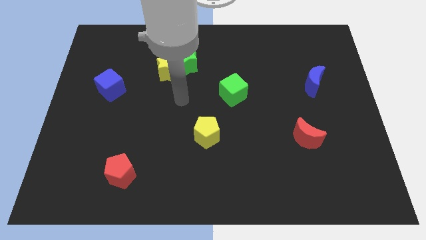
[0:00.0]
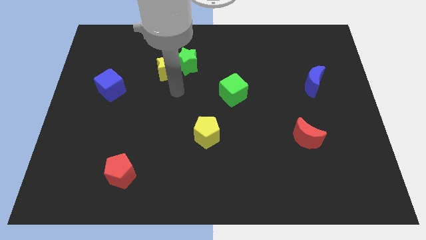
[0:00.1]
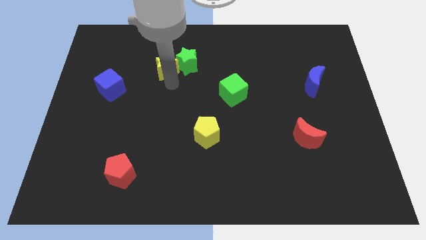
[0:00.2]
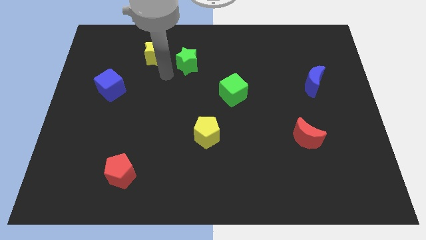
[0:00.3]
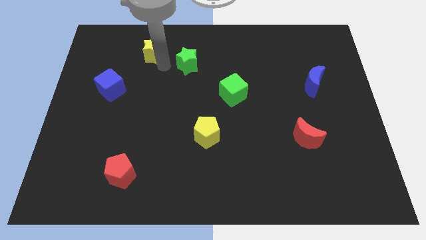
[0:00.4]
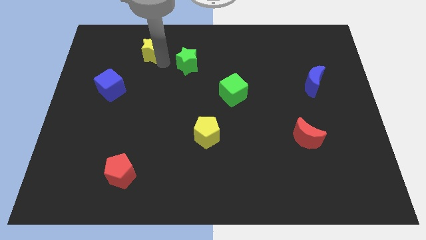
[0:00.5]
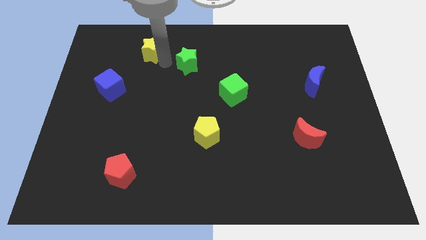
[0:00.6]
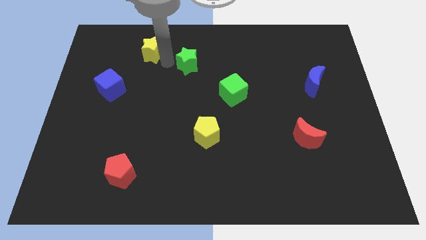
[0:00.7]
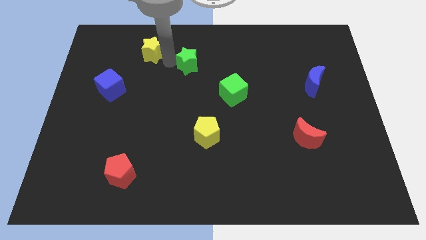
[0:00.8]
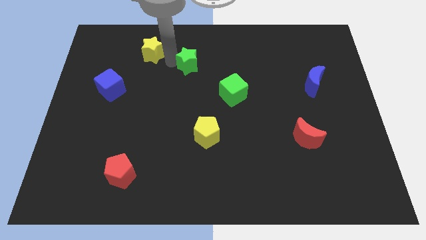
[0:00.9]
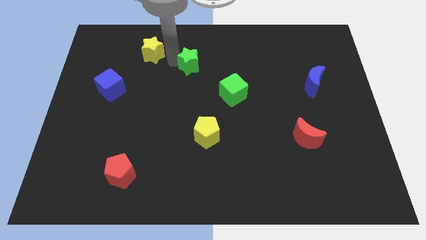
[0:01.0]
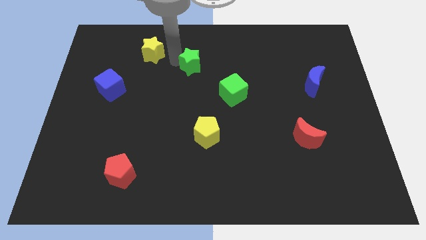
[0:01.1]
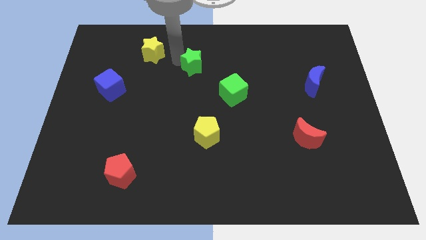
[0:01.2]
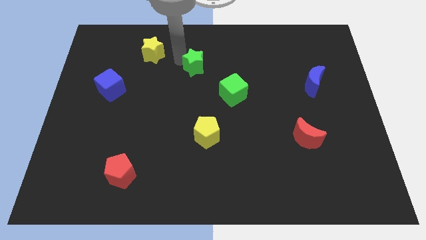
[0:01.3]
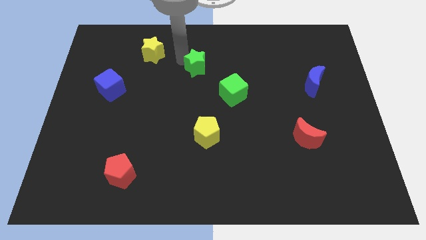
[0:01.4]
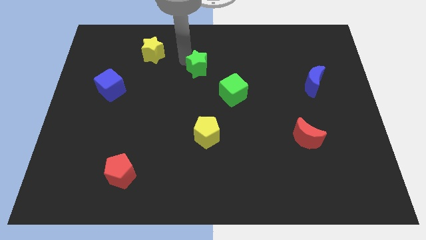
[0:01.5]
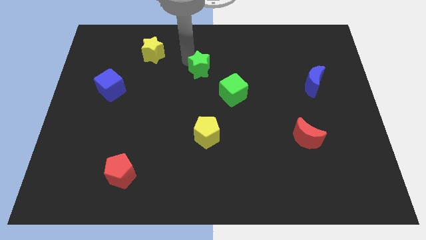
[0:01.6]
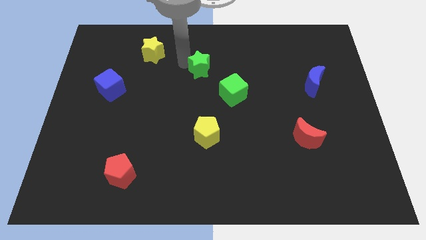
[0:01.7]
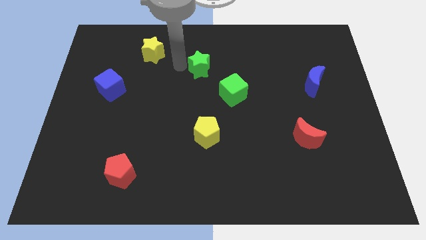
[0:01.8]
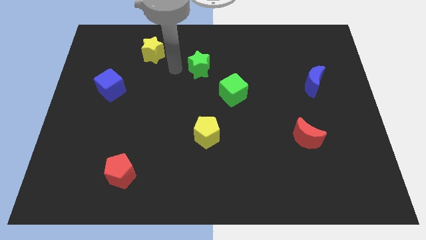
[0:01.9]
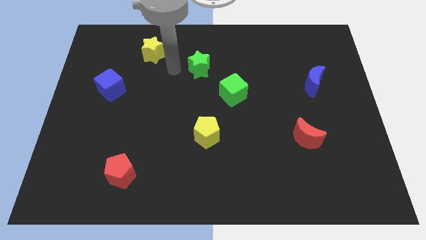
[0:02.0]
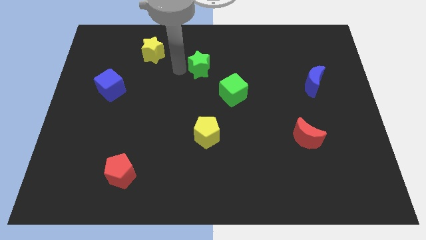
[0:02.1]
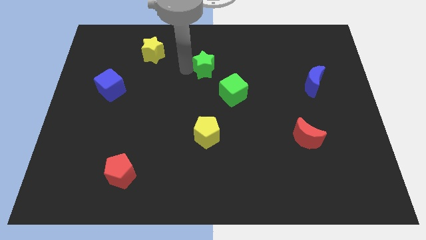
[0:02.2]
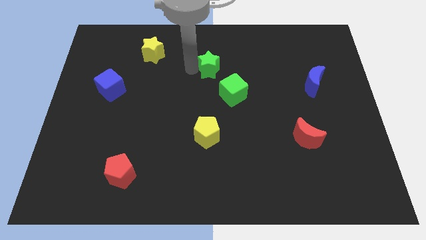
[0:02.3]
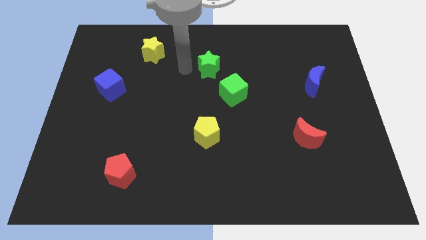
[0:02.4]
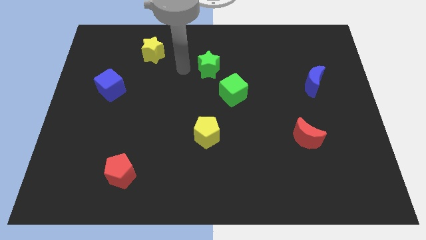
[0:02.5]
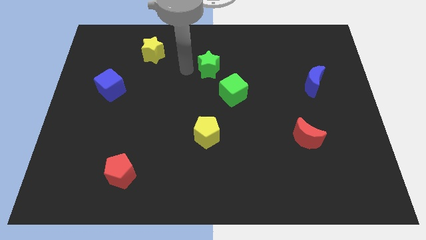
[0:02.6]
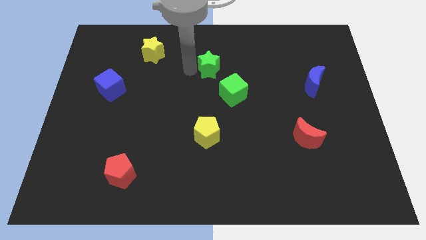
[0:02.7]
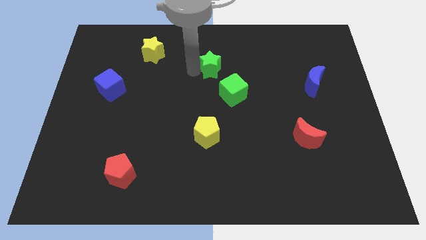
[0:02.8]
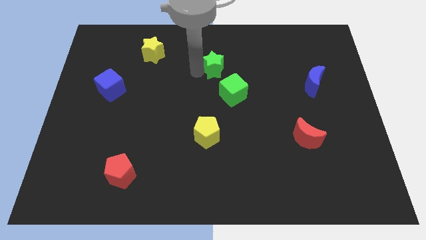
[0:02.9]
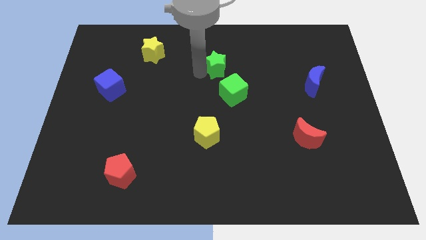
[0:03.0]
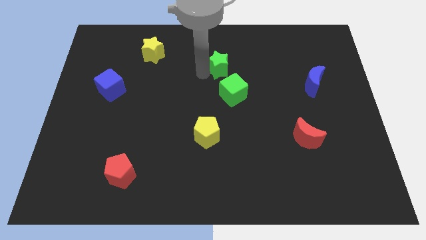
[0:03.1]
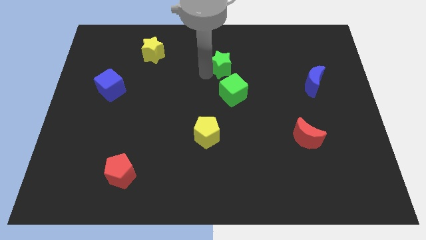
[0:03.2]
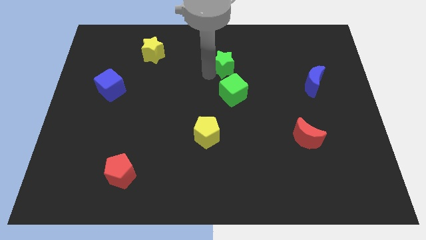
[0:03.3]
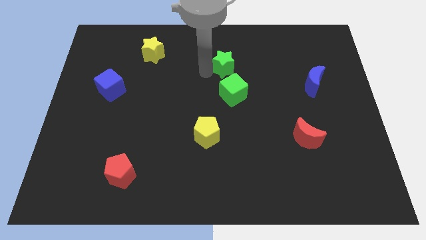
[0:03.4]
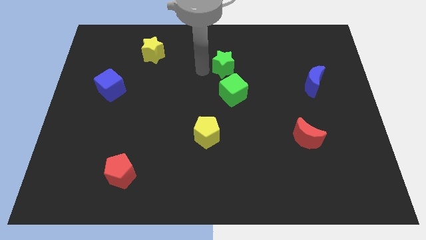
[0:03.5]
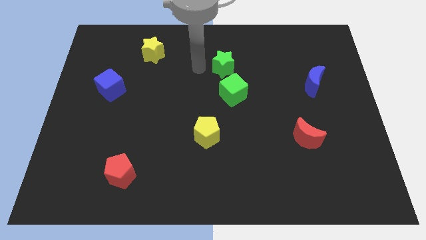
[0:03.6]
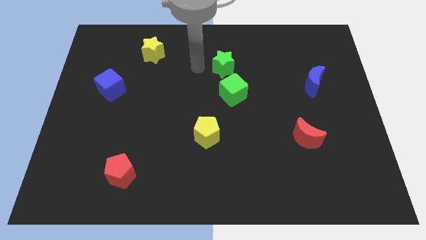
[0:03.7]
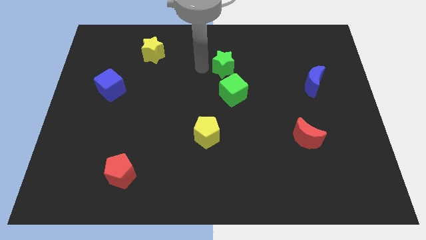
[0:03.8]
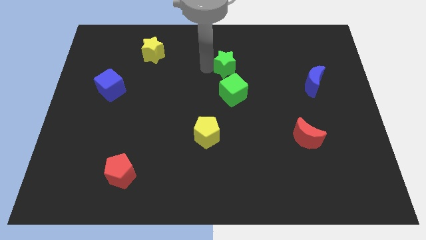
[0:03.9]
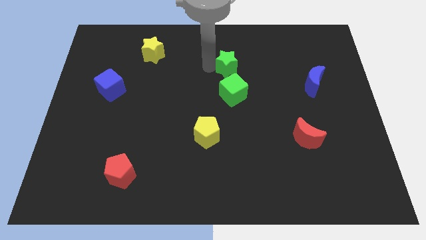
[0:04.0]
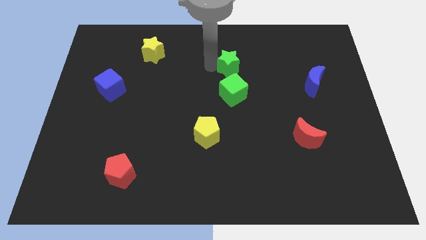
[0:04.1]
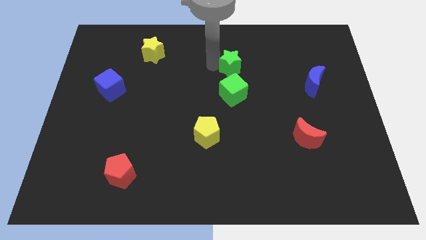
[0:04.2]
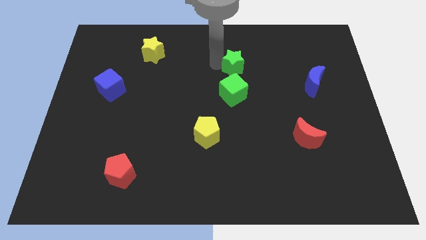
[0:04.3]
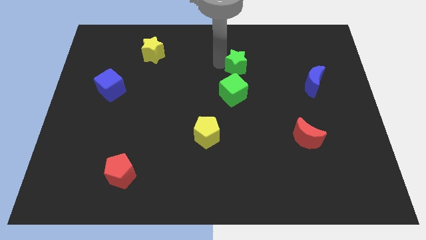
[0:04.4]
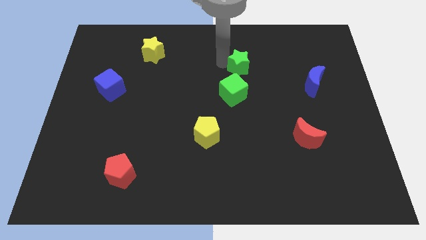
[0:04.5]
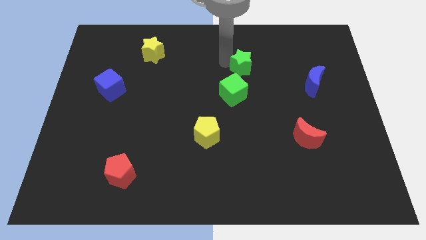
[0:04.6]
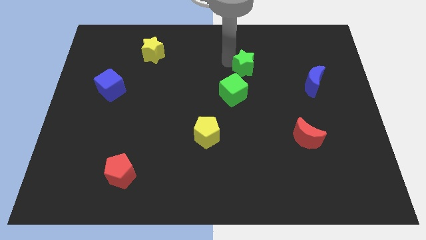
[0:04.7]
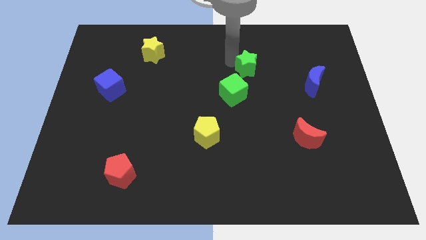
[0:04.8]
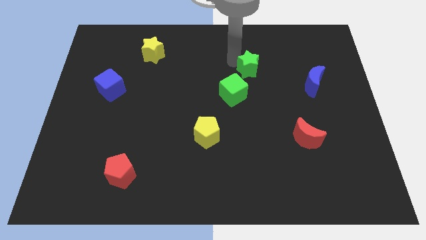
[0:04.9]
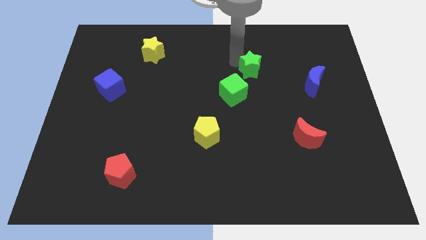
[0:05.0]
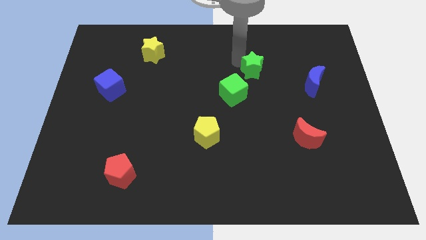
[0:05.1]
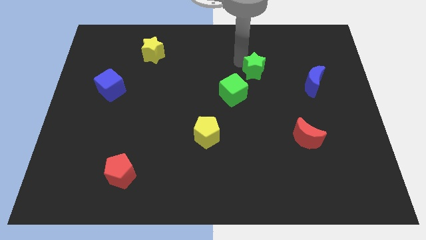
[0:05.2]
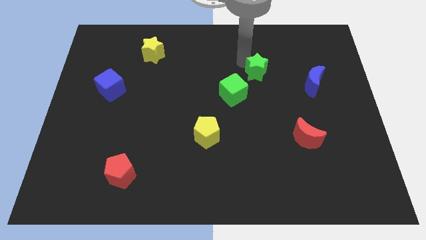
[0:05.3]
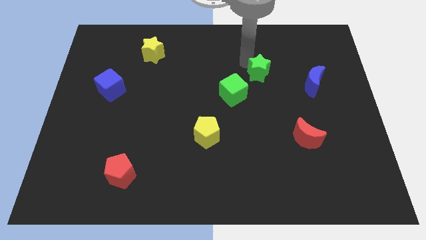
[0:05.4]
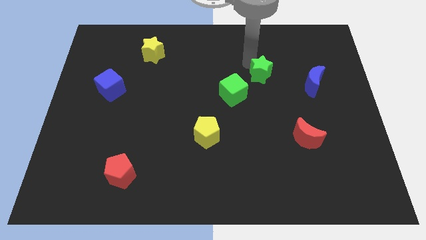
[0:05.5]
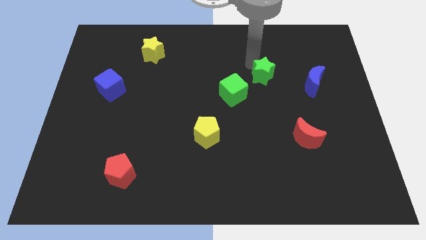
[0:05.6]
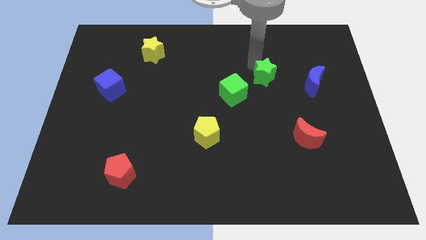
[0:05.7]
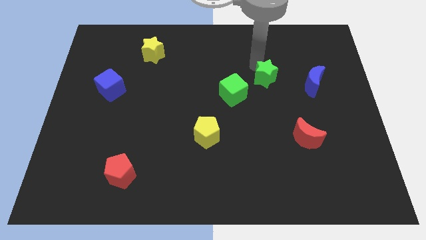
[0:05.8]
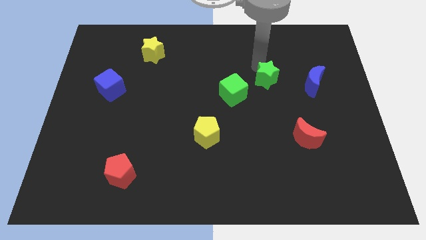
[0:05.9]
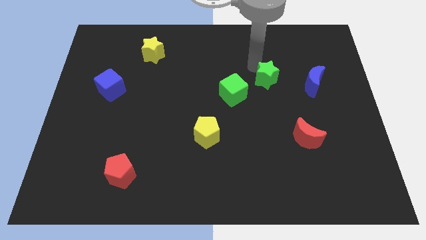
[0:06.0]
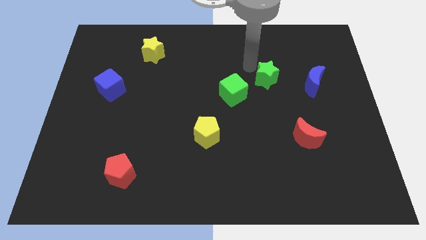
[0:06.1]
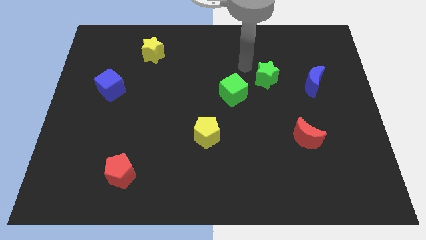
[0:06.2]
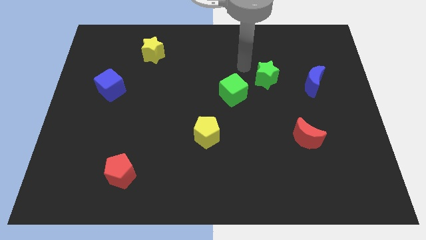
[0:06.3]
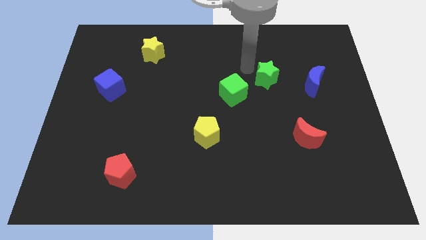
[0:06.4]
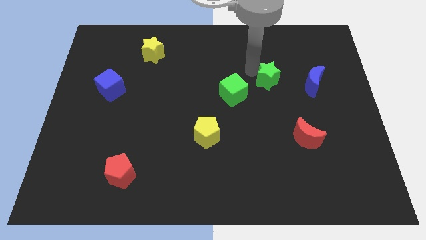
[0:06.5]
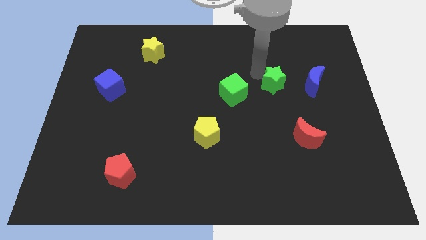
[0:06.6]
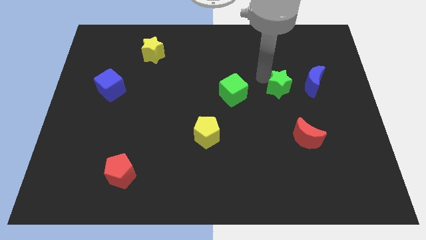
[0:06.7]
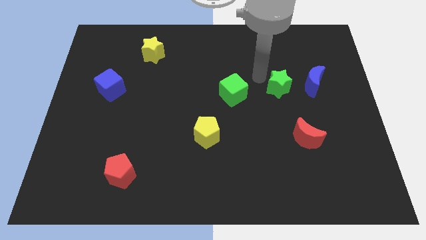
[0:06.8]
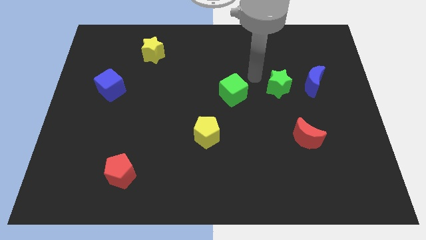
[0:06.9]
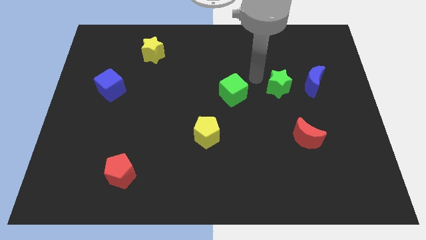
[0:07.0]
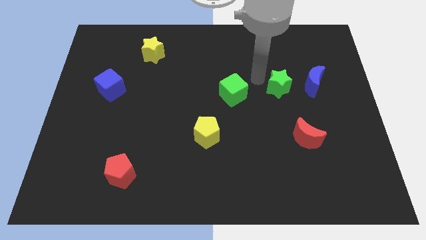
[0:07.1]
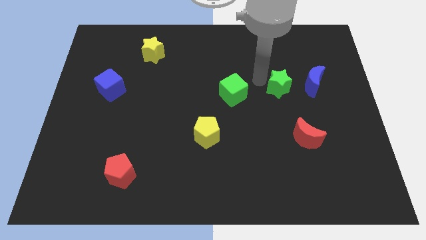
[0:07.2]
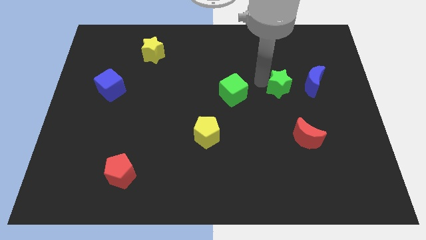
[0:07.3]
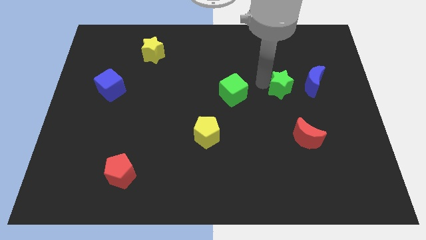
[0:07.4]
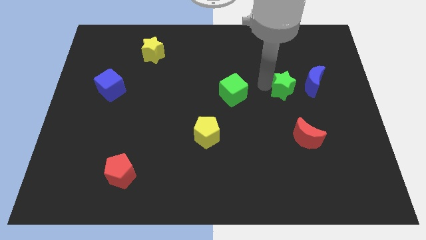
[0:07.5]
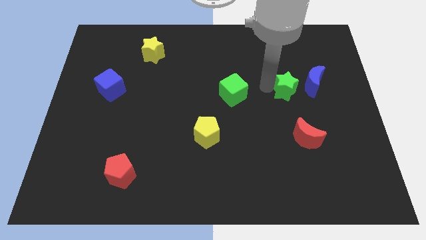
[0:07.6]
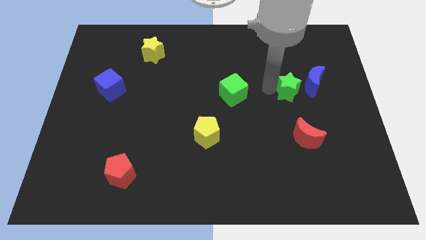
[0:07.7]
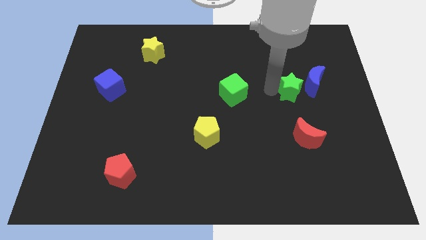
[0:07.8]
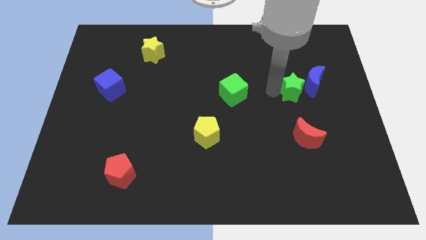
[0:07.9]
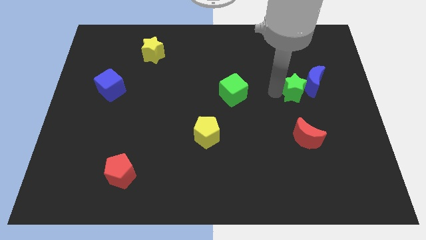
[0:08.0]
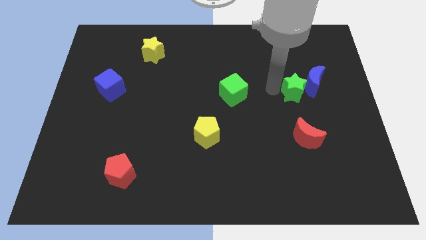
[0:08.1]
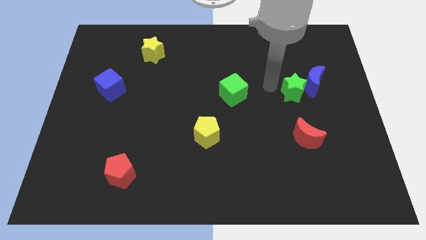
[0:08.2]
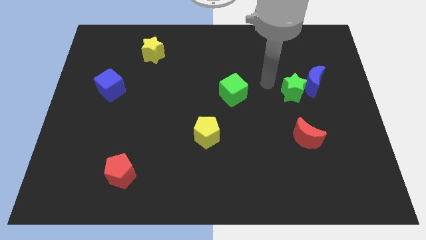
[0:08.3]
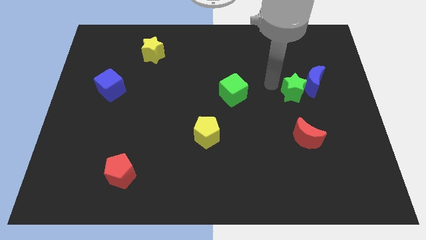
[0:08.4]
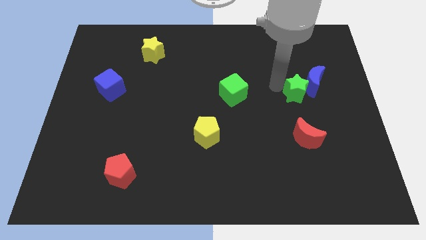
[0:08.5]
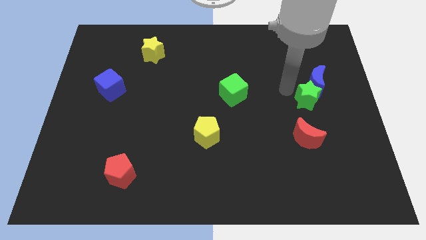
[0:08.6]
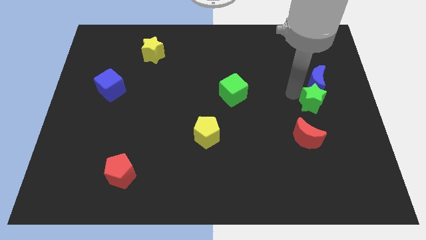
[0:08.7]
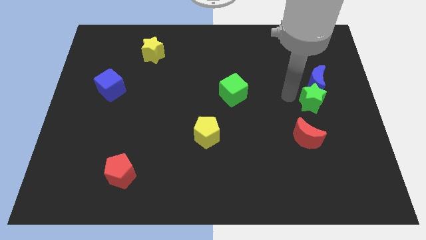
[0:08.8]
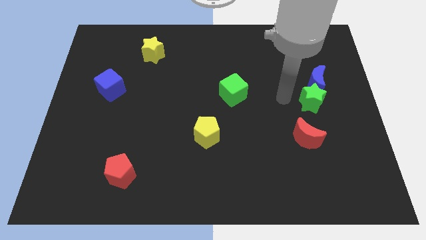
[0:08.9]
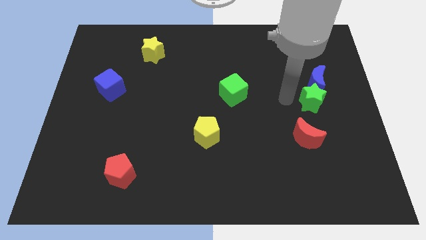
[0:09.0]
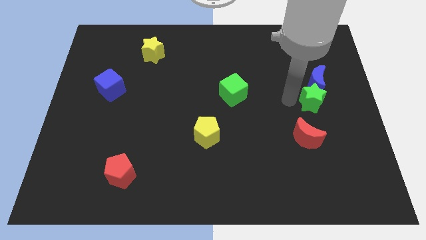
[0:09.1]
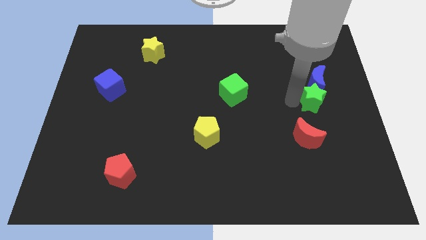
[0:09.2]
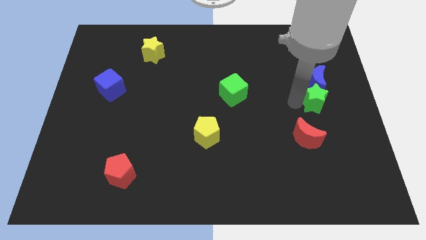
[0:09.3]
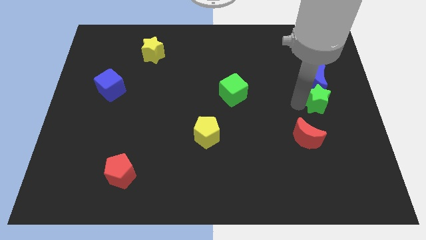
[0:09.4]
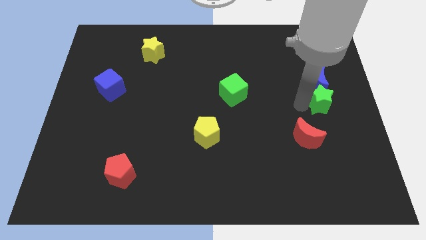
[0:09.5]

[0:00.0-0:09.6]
slide the green star to the right side of the board
